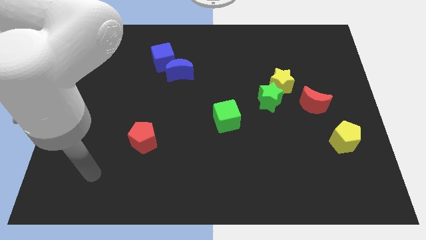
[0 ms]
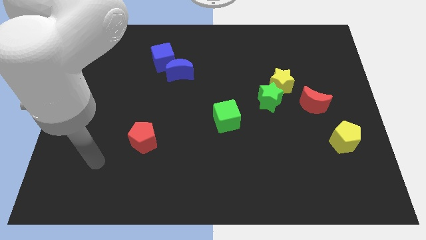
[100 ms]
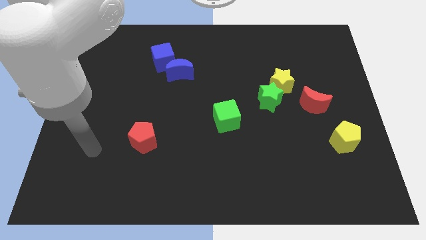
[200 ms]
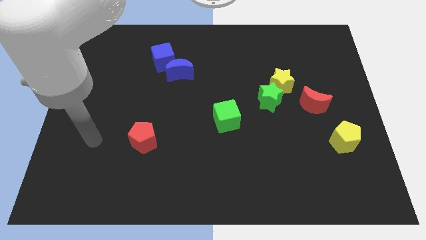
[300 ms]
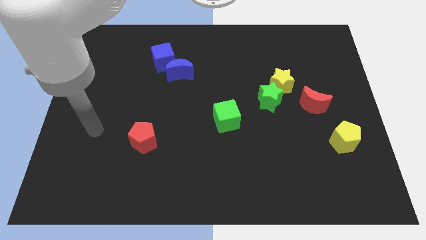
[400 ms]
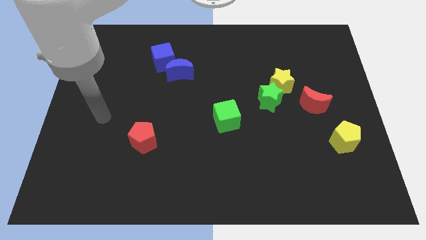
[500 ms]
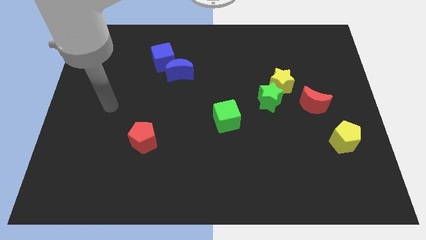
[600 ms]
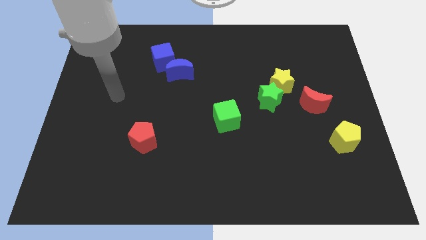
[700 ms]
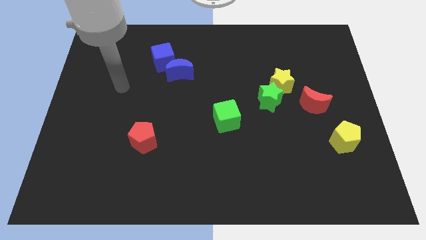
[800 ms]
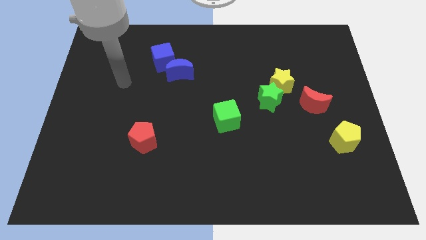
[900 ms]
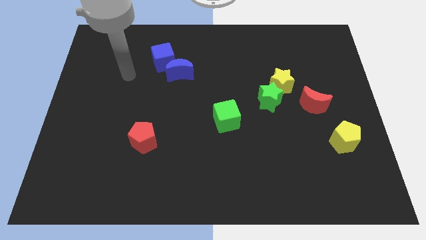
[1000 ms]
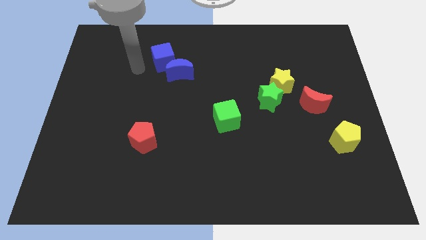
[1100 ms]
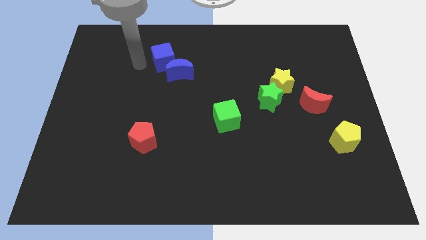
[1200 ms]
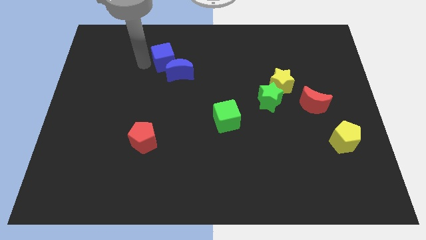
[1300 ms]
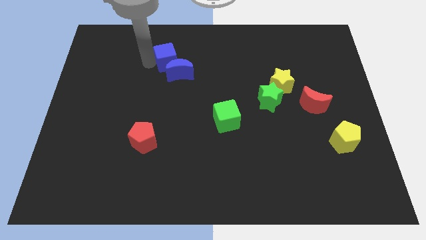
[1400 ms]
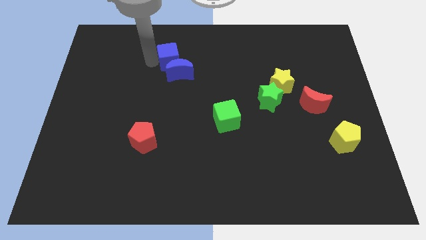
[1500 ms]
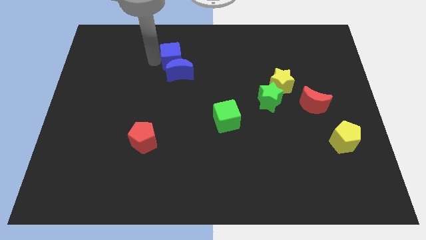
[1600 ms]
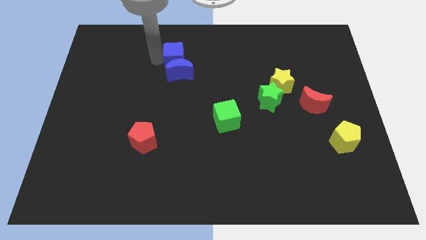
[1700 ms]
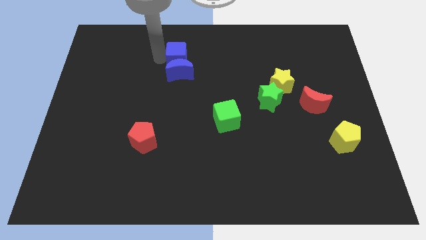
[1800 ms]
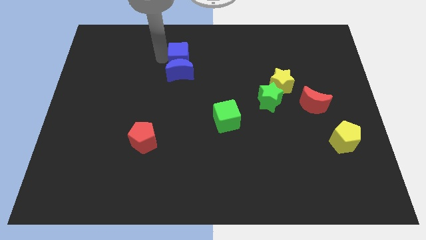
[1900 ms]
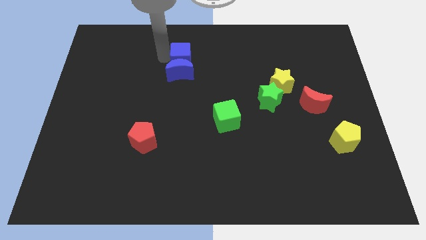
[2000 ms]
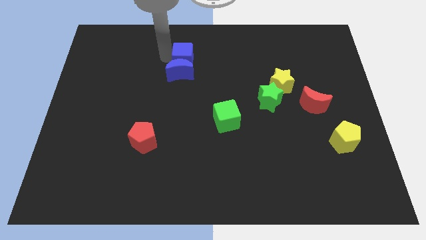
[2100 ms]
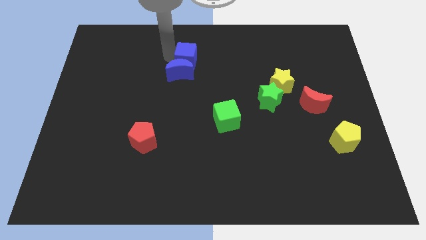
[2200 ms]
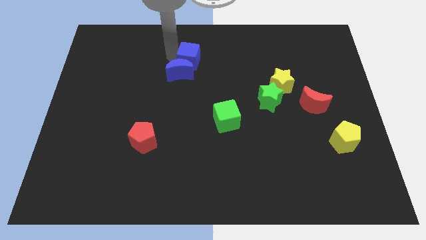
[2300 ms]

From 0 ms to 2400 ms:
slightly slide the blue cube to the right

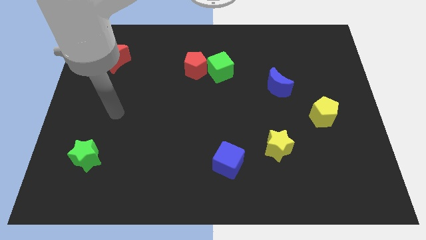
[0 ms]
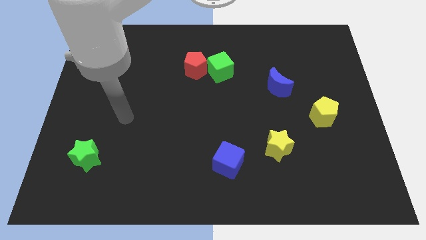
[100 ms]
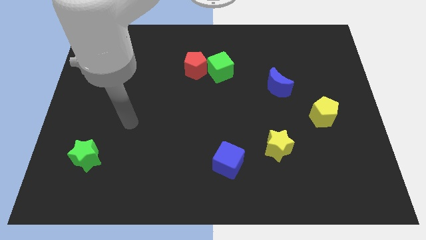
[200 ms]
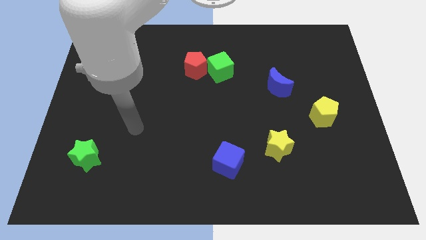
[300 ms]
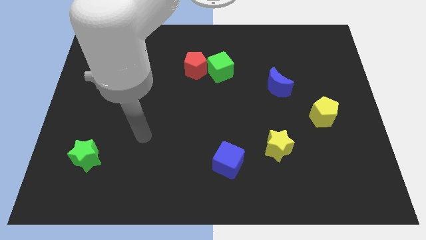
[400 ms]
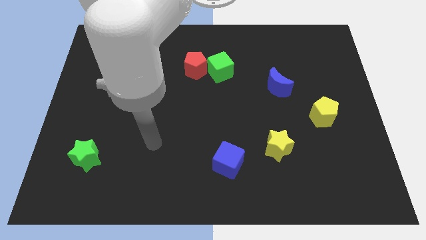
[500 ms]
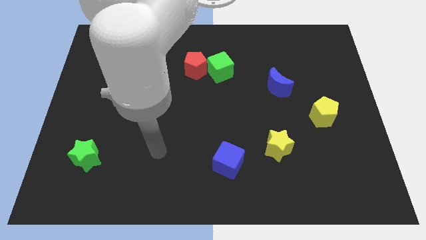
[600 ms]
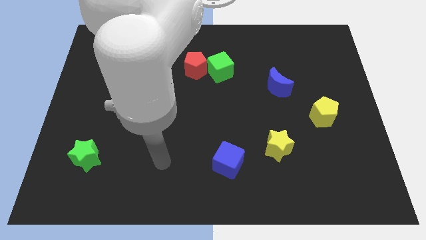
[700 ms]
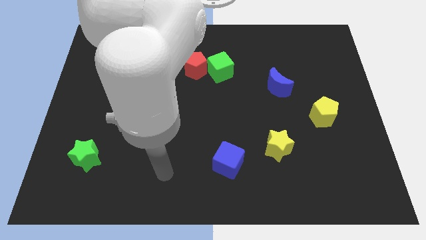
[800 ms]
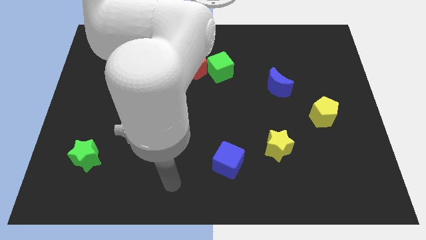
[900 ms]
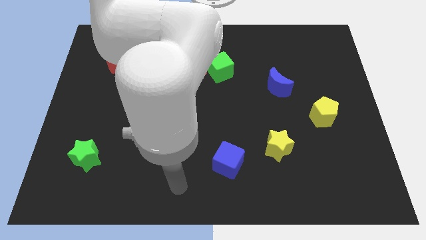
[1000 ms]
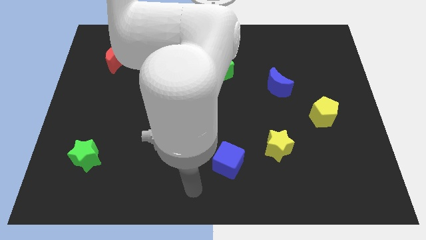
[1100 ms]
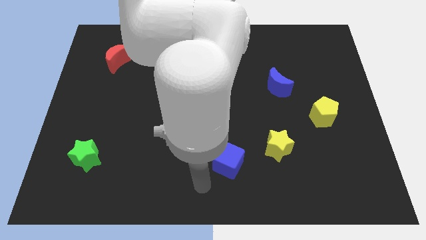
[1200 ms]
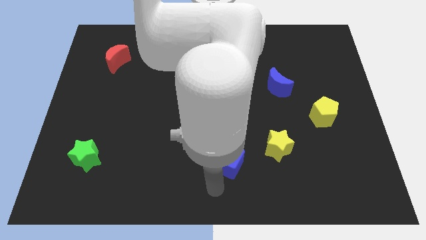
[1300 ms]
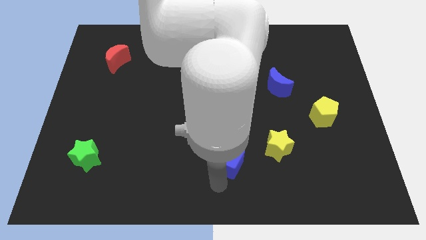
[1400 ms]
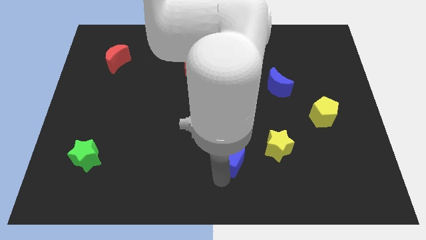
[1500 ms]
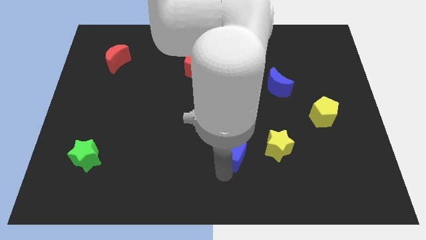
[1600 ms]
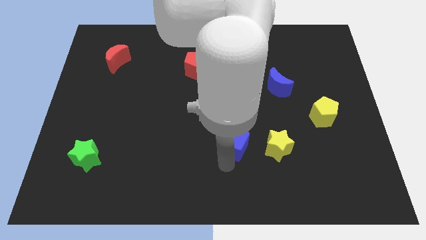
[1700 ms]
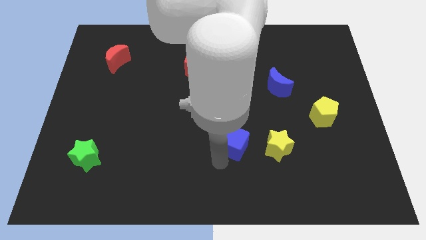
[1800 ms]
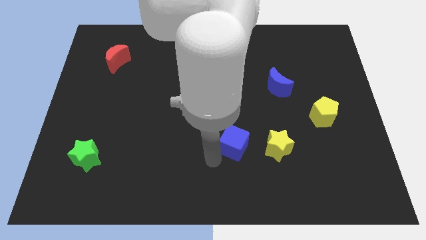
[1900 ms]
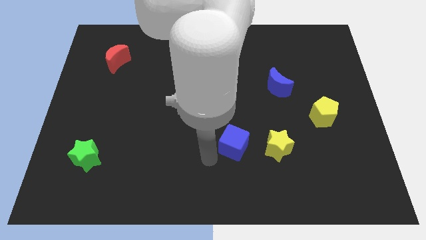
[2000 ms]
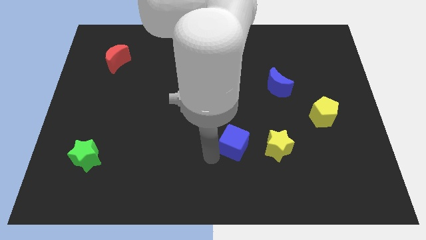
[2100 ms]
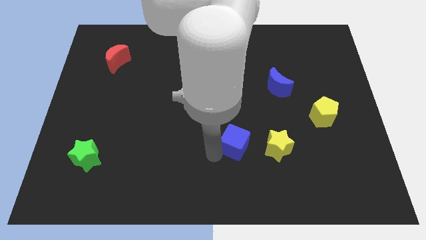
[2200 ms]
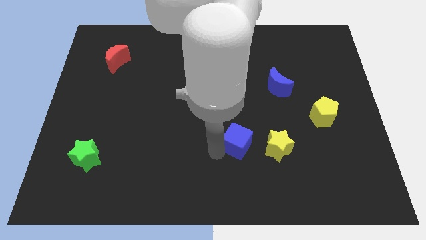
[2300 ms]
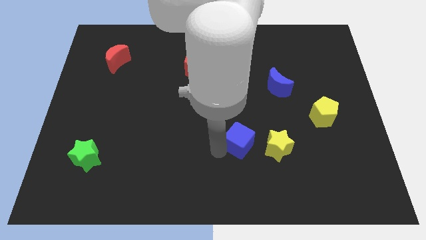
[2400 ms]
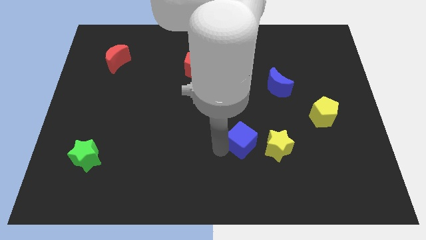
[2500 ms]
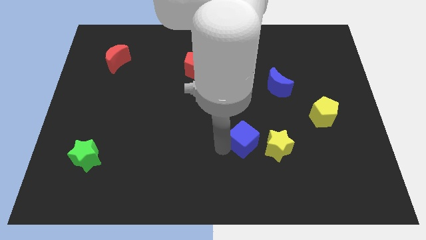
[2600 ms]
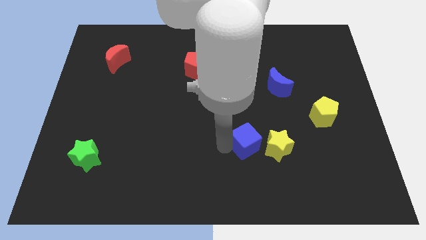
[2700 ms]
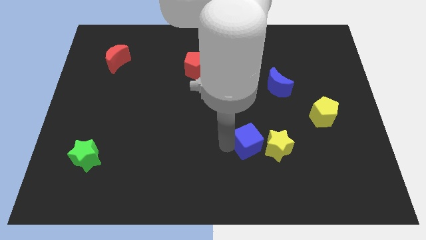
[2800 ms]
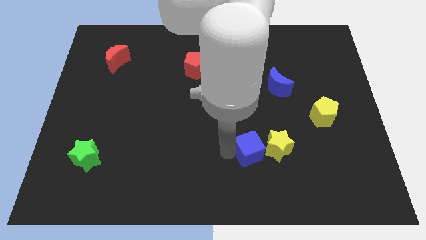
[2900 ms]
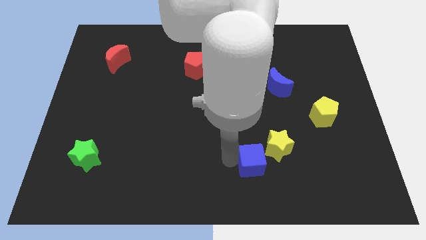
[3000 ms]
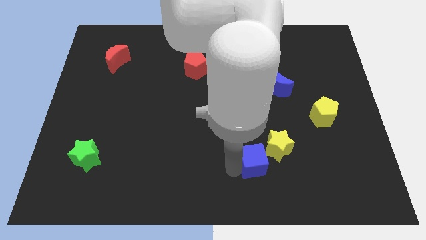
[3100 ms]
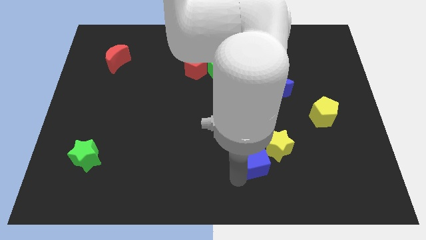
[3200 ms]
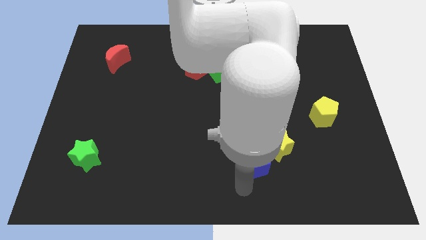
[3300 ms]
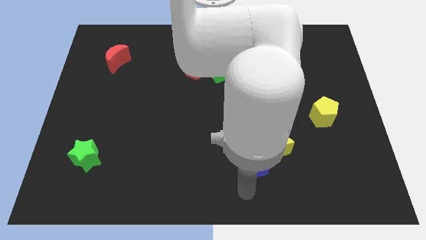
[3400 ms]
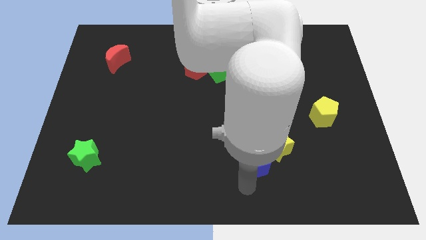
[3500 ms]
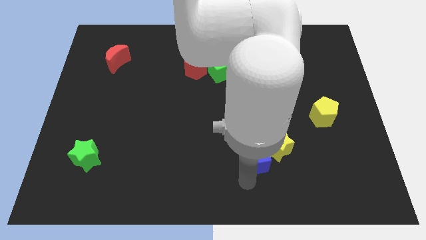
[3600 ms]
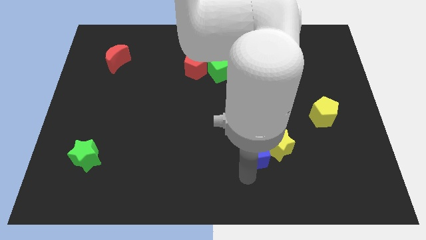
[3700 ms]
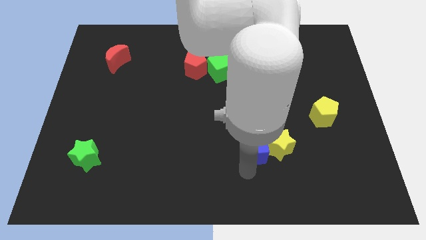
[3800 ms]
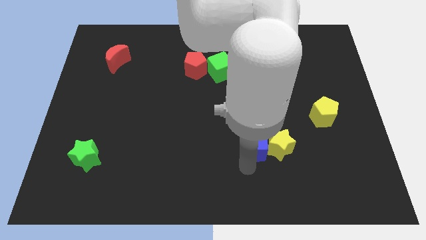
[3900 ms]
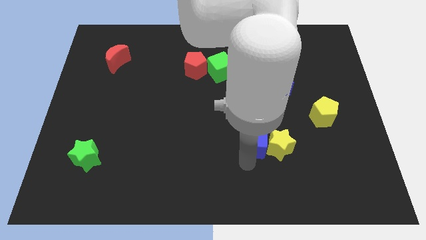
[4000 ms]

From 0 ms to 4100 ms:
slightly push the blue cube diagonally up and right

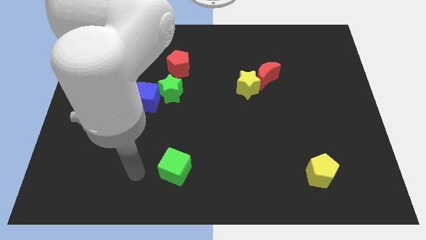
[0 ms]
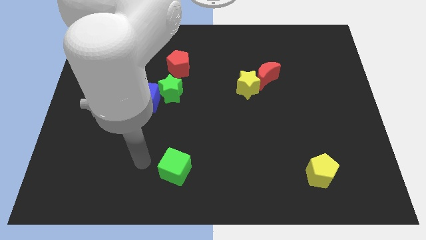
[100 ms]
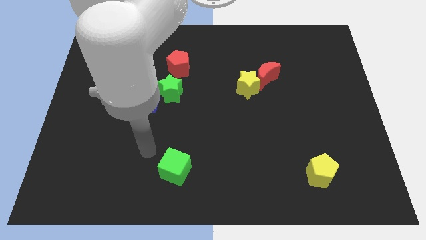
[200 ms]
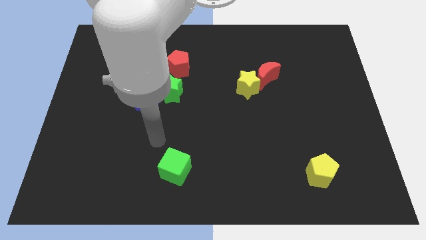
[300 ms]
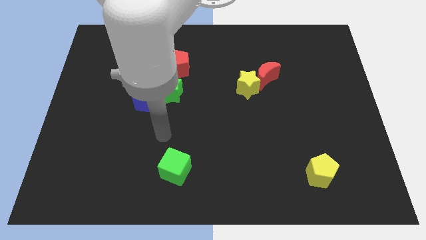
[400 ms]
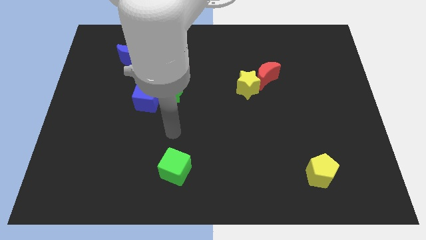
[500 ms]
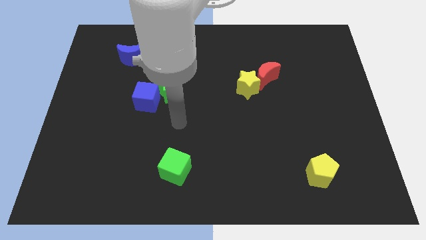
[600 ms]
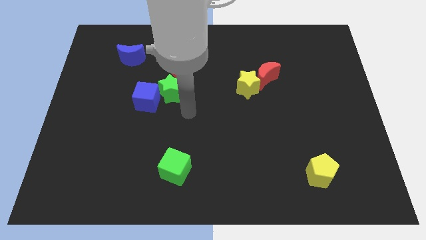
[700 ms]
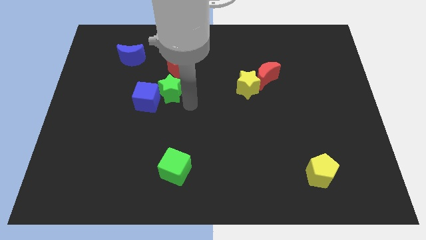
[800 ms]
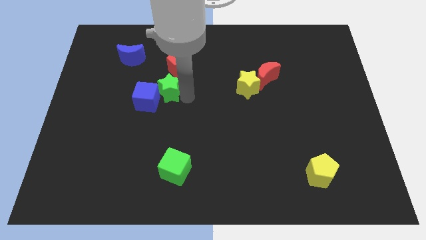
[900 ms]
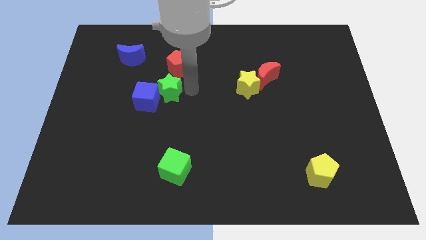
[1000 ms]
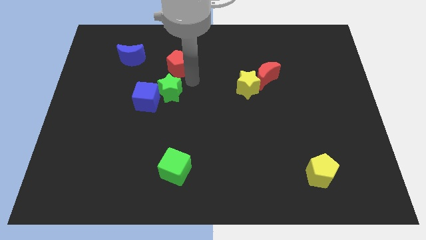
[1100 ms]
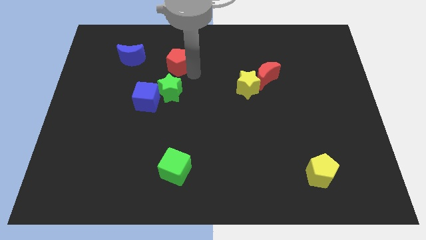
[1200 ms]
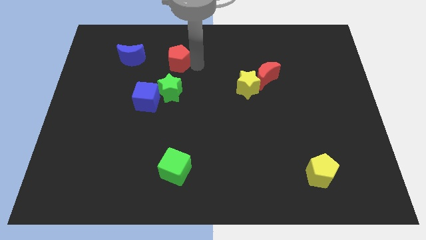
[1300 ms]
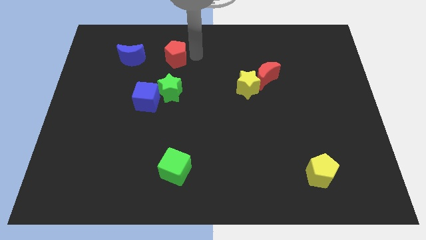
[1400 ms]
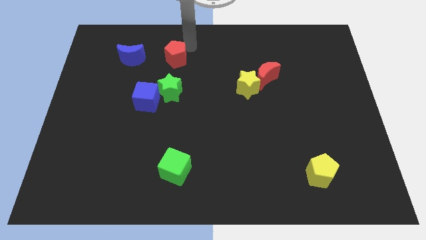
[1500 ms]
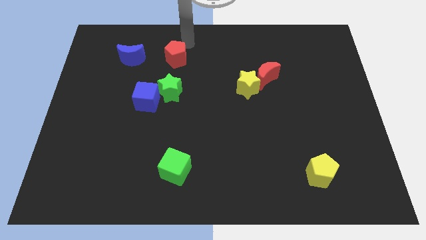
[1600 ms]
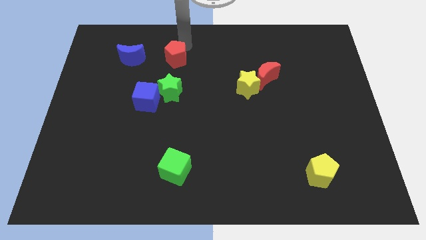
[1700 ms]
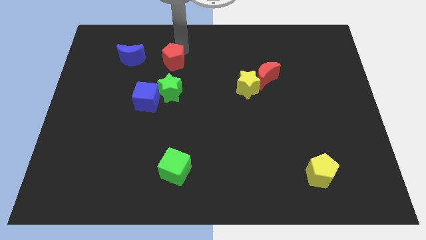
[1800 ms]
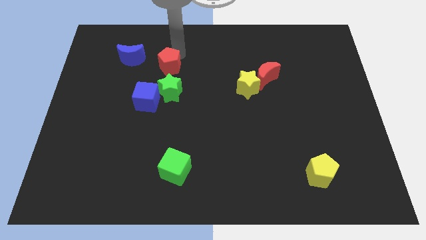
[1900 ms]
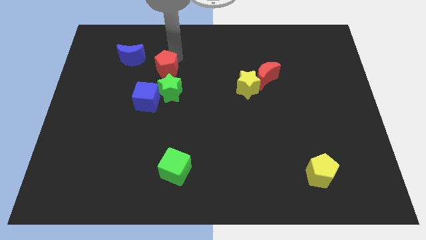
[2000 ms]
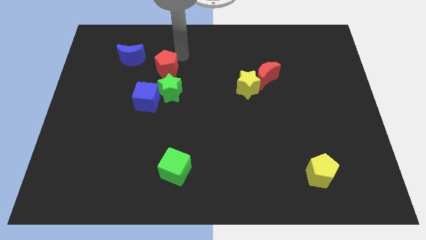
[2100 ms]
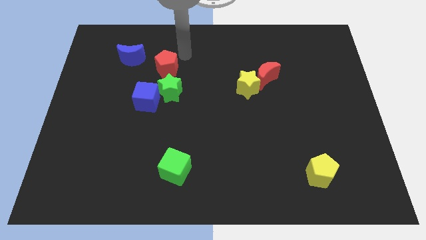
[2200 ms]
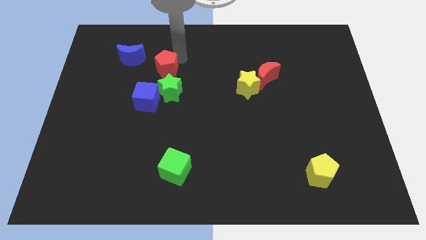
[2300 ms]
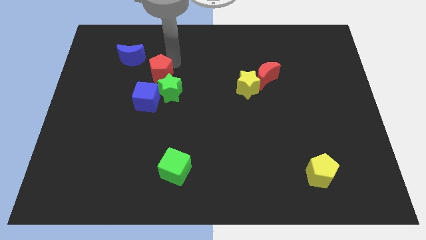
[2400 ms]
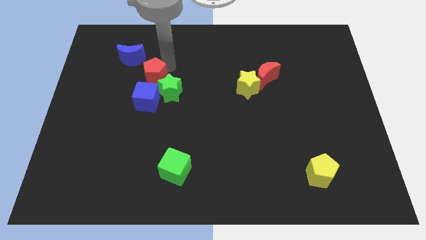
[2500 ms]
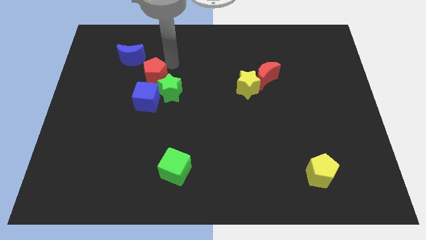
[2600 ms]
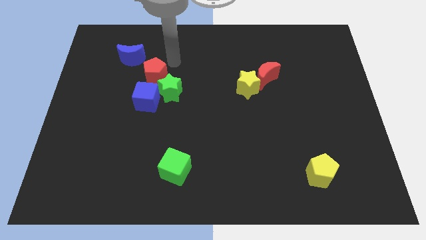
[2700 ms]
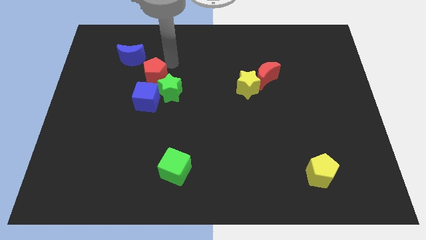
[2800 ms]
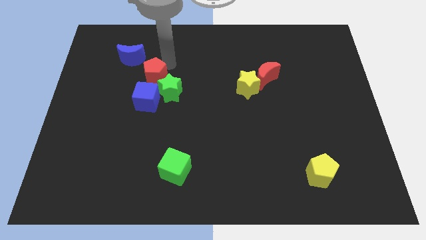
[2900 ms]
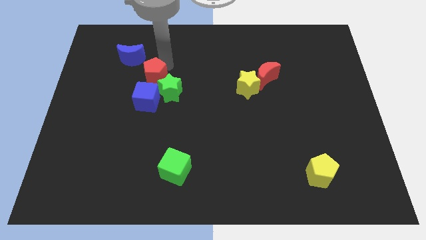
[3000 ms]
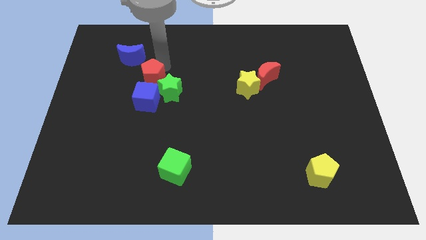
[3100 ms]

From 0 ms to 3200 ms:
push the red pentagon diagonally downwards and to the left a bit
